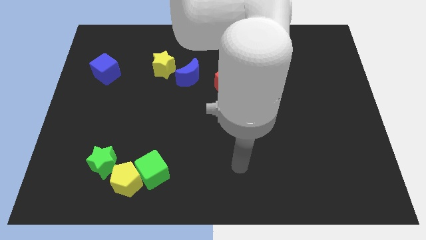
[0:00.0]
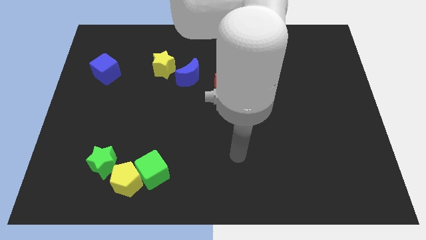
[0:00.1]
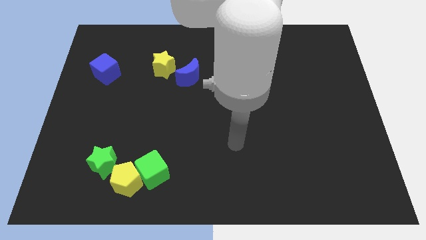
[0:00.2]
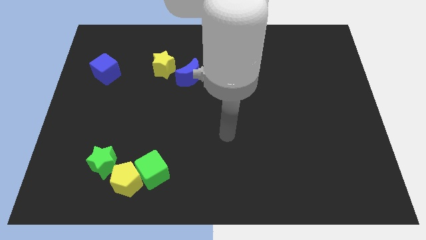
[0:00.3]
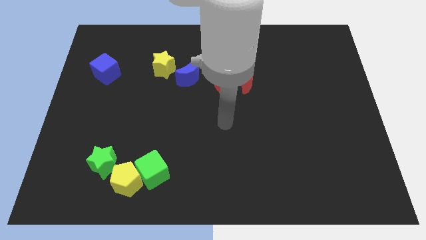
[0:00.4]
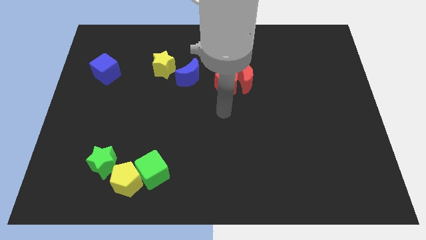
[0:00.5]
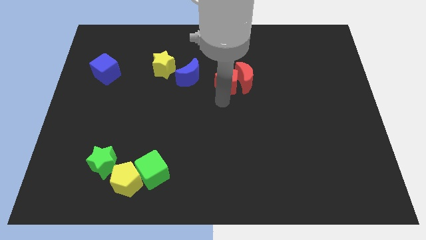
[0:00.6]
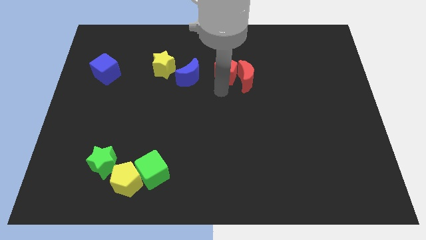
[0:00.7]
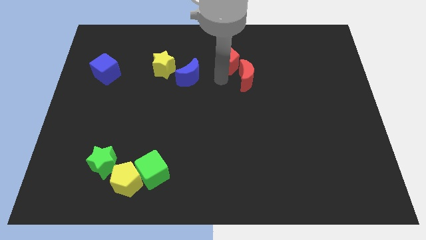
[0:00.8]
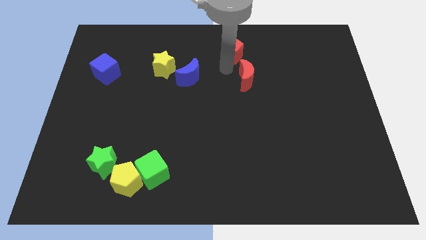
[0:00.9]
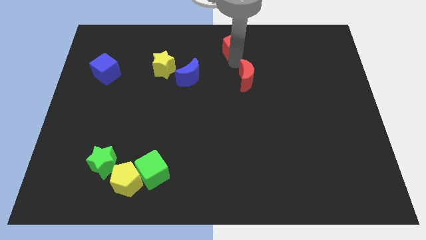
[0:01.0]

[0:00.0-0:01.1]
pull the red moon apart from the red pentagon

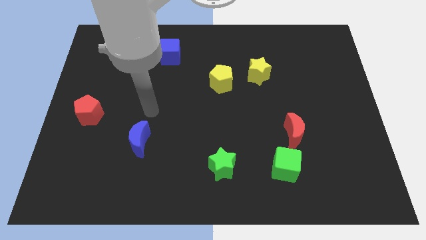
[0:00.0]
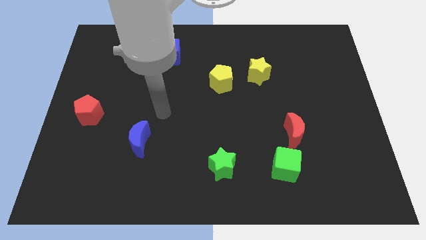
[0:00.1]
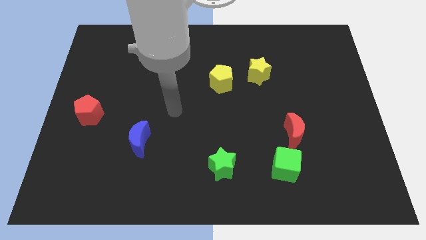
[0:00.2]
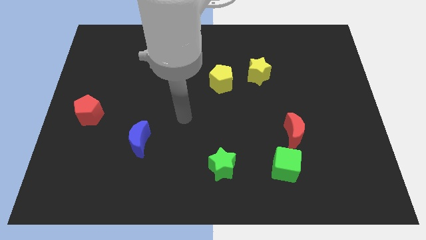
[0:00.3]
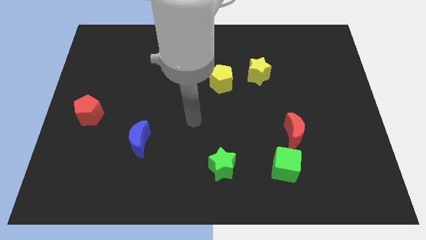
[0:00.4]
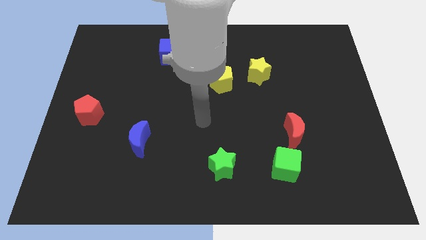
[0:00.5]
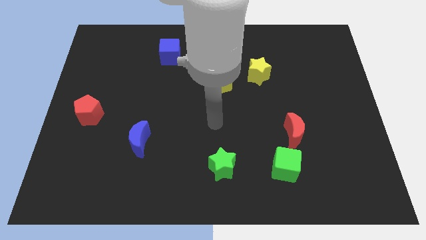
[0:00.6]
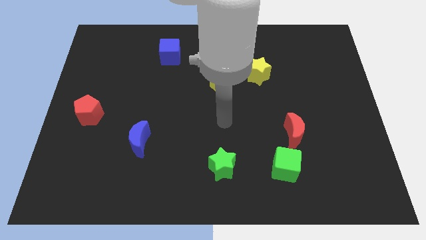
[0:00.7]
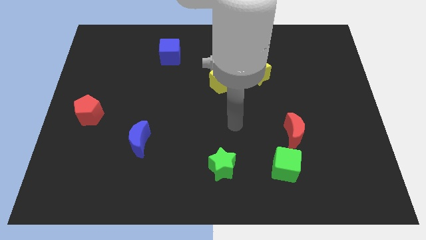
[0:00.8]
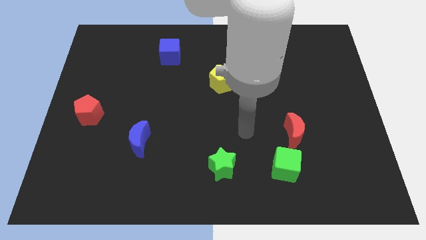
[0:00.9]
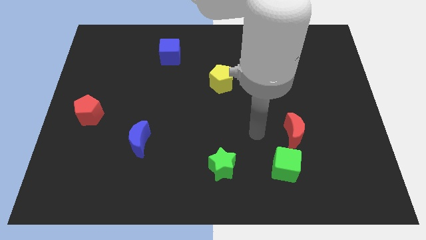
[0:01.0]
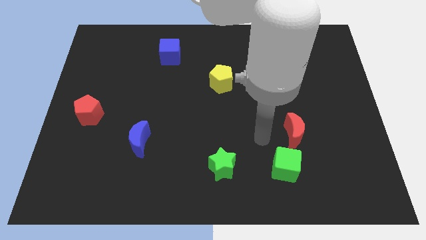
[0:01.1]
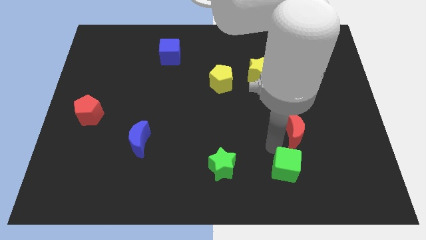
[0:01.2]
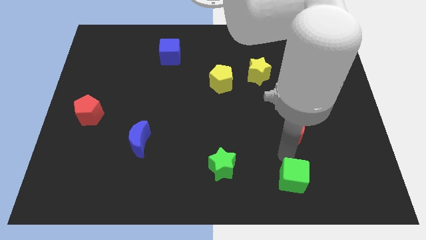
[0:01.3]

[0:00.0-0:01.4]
pull the red moon apart from the green cube

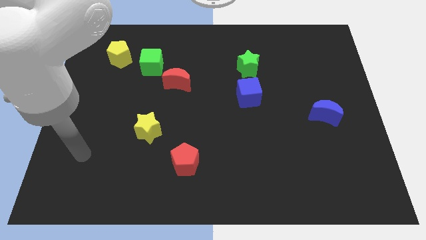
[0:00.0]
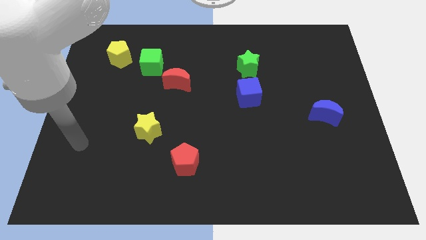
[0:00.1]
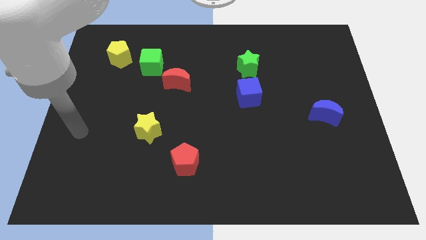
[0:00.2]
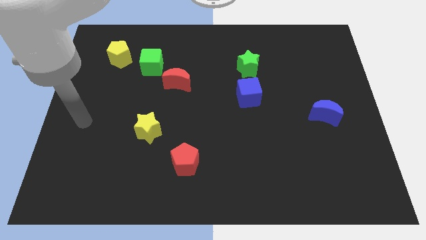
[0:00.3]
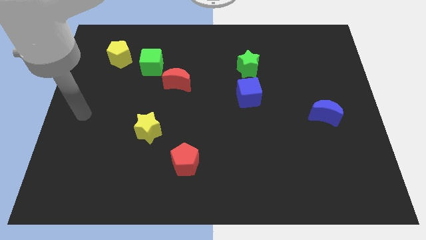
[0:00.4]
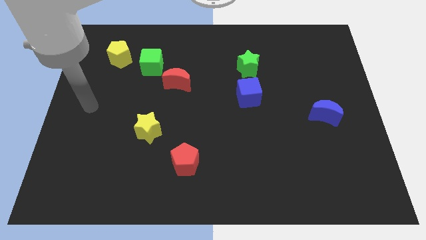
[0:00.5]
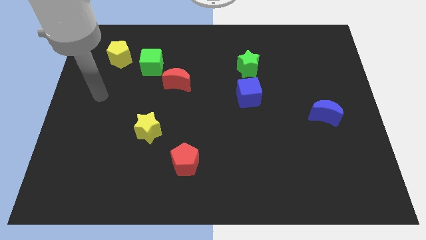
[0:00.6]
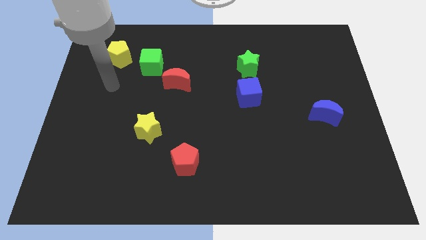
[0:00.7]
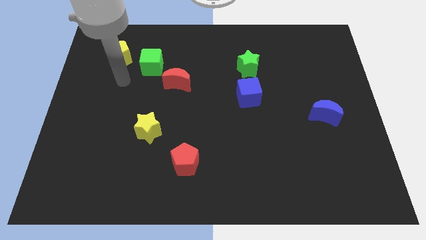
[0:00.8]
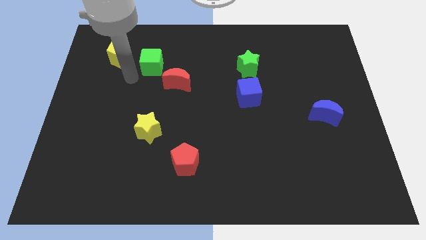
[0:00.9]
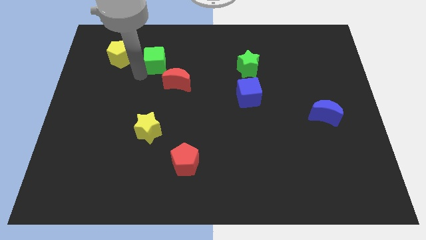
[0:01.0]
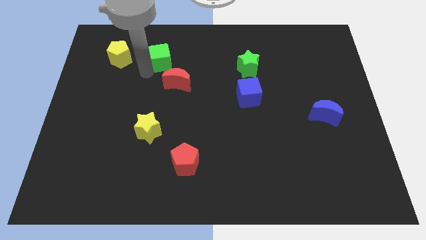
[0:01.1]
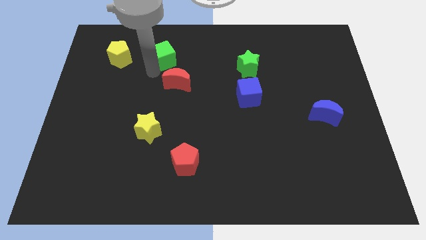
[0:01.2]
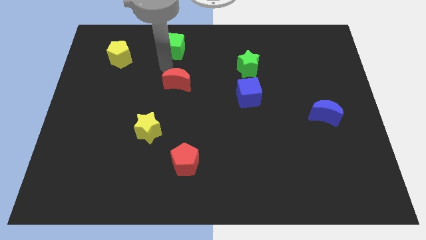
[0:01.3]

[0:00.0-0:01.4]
move the red moon away from the green cube

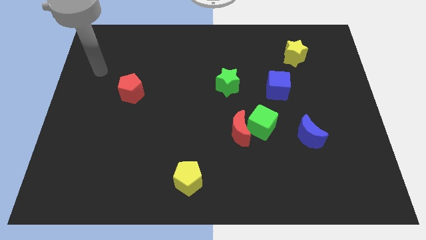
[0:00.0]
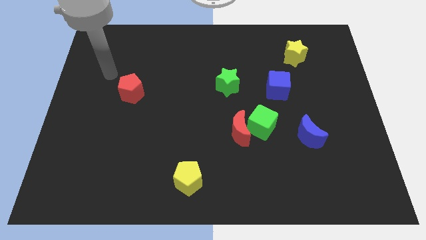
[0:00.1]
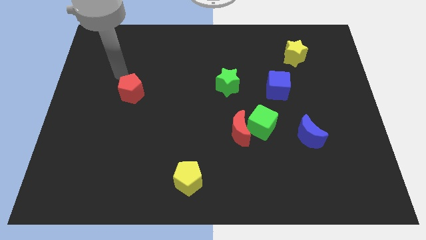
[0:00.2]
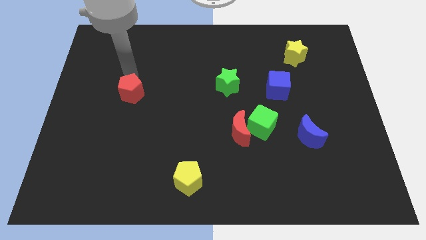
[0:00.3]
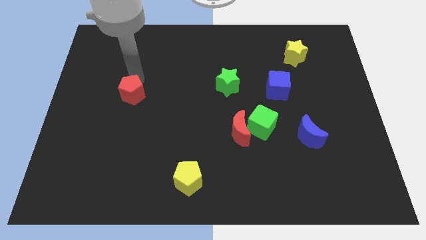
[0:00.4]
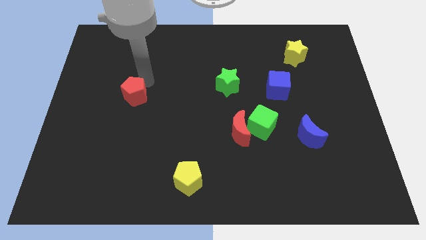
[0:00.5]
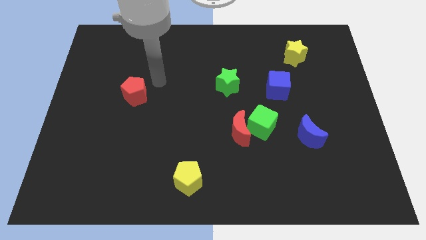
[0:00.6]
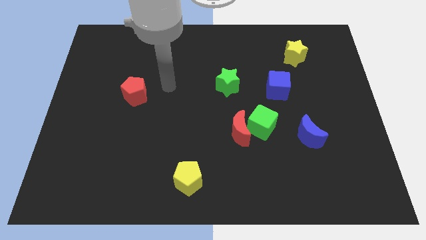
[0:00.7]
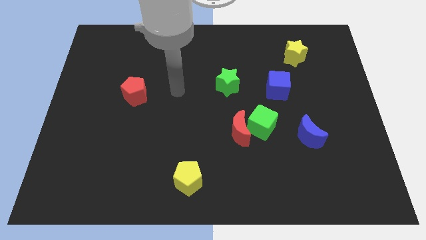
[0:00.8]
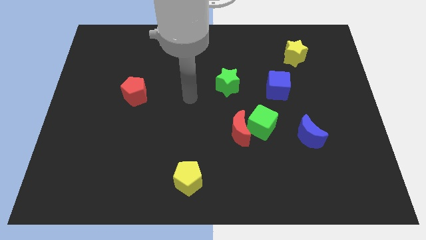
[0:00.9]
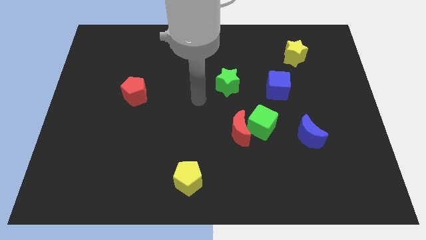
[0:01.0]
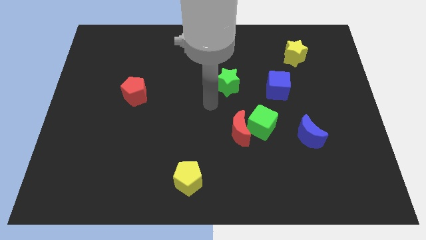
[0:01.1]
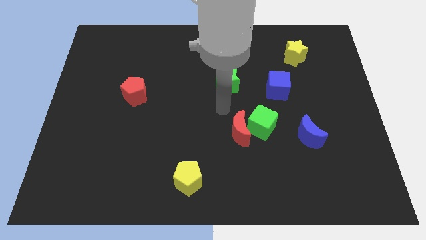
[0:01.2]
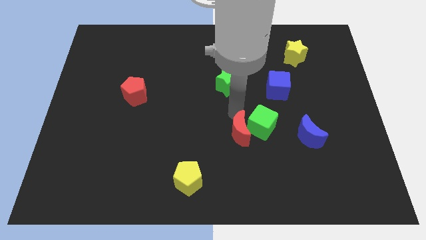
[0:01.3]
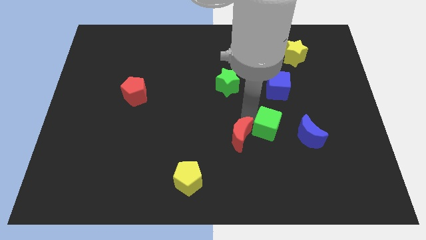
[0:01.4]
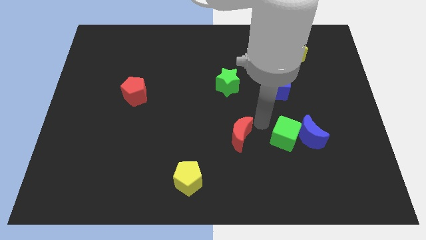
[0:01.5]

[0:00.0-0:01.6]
separate the red moon from the green cube

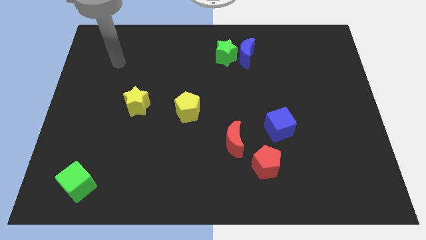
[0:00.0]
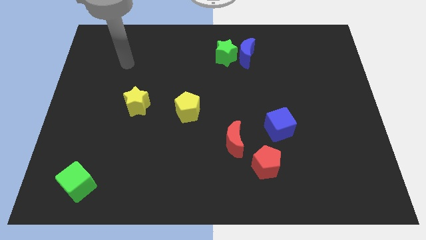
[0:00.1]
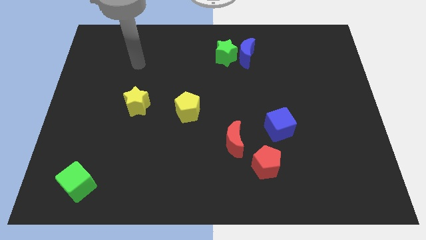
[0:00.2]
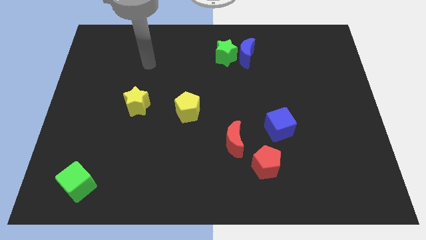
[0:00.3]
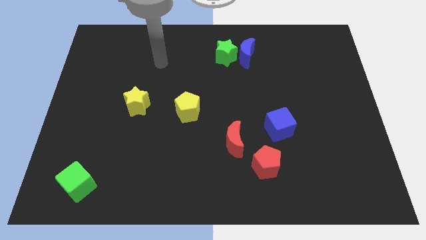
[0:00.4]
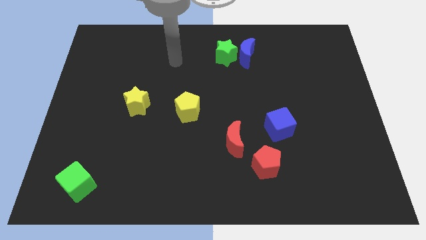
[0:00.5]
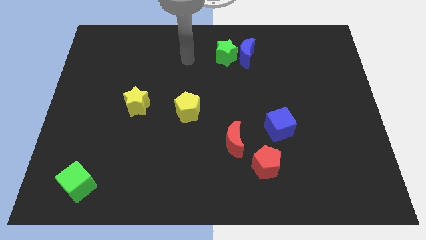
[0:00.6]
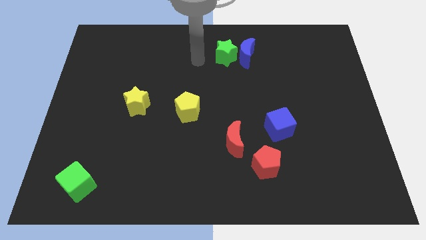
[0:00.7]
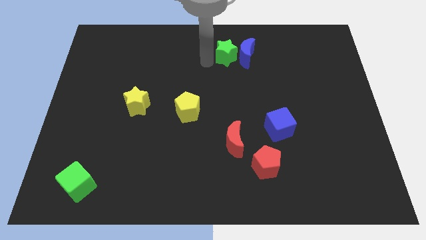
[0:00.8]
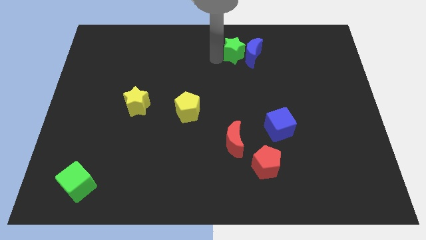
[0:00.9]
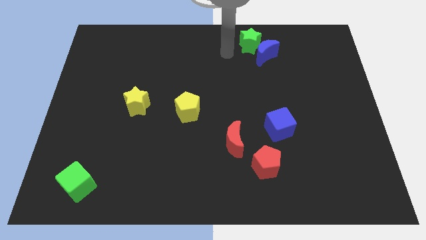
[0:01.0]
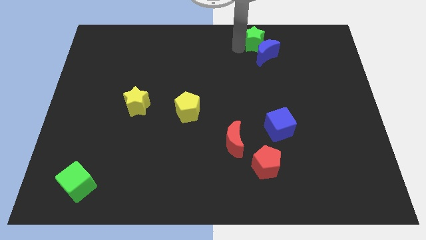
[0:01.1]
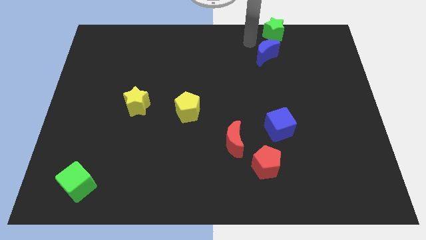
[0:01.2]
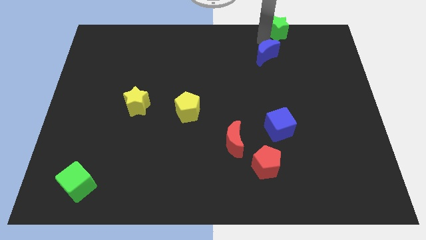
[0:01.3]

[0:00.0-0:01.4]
separate the blue moon from the green star

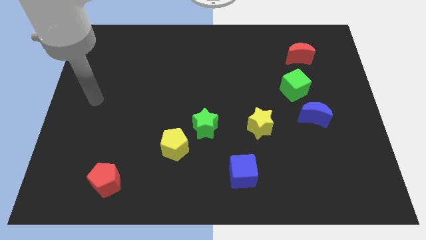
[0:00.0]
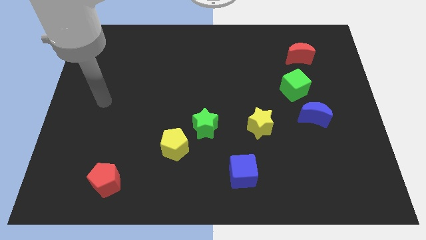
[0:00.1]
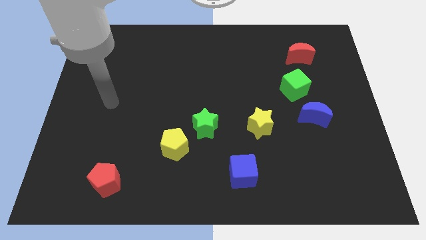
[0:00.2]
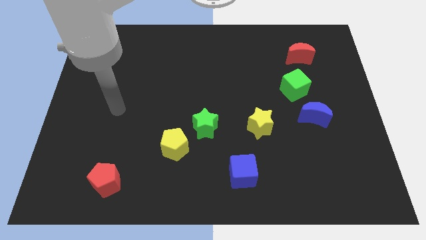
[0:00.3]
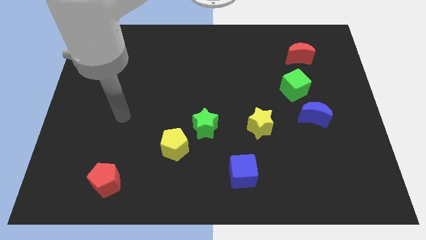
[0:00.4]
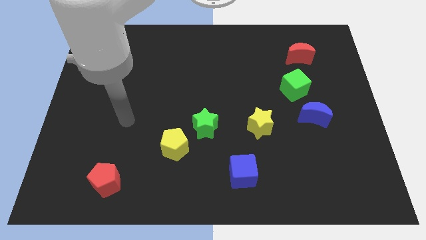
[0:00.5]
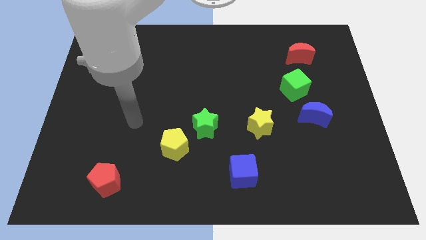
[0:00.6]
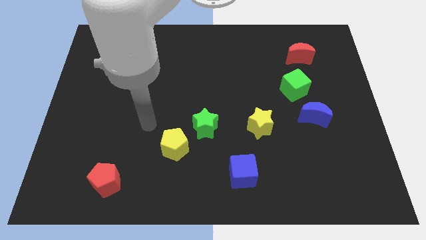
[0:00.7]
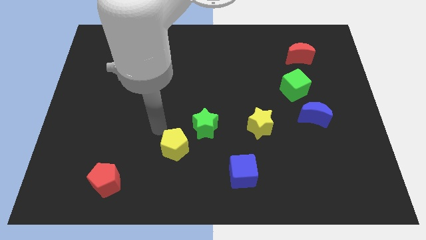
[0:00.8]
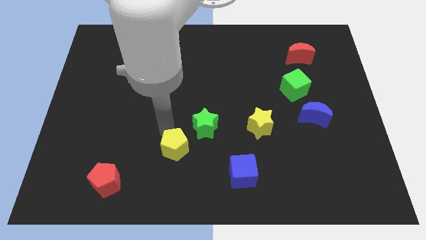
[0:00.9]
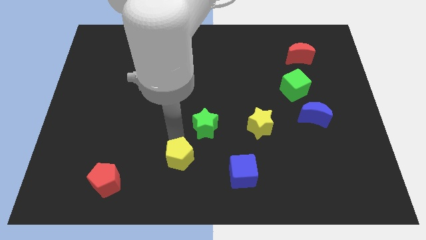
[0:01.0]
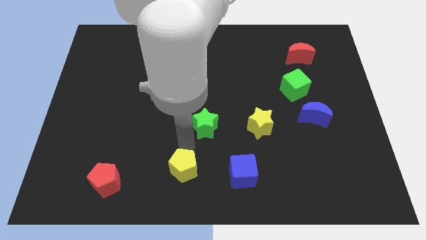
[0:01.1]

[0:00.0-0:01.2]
move the green star away from the yellow pentagon

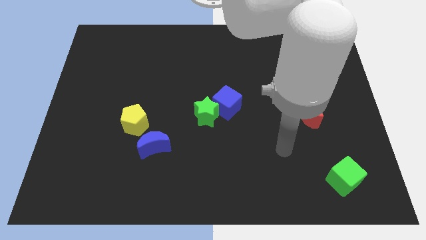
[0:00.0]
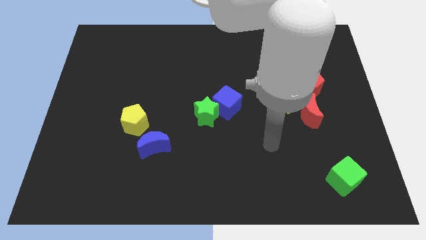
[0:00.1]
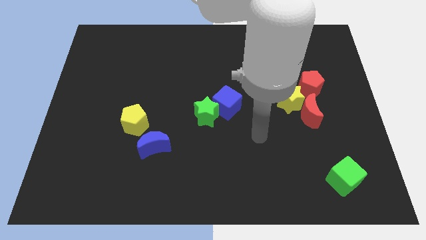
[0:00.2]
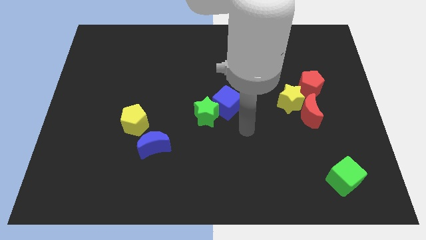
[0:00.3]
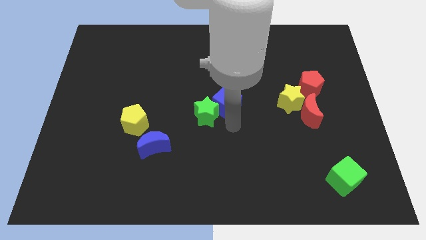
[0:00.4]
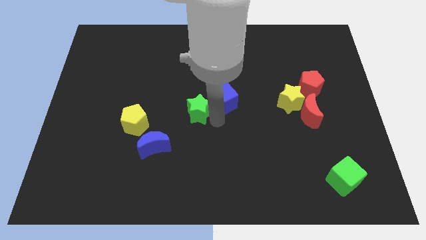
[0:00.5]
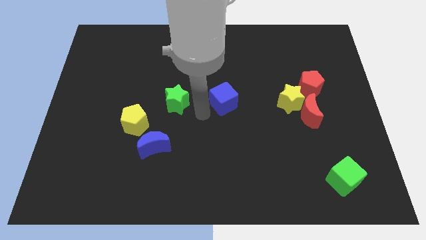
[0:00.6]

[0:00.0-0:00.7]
move the blue cube away from the green star

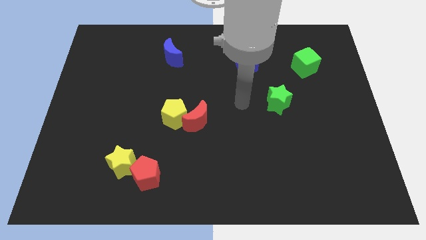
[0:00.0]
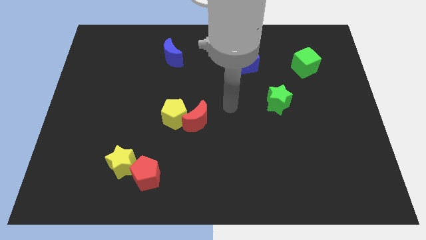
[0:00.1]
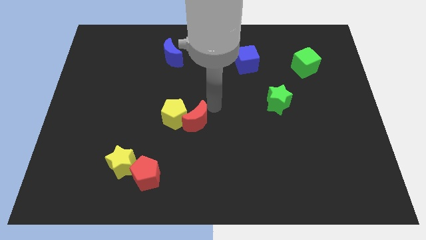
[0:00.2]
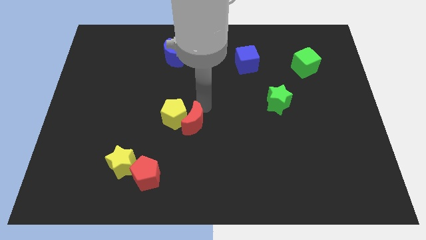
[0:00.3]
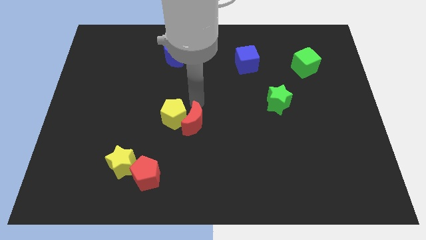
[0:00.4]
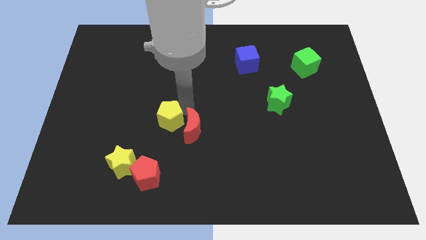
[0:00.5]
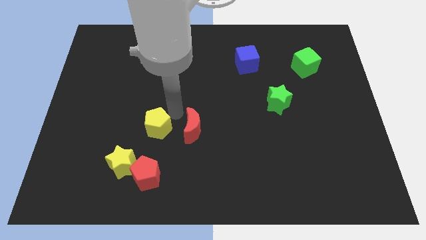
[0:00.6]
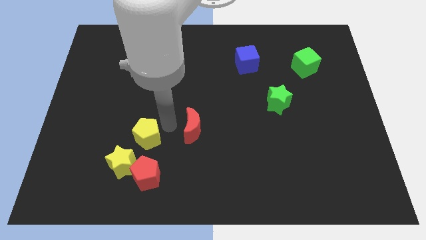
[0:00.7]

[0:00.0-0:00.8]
pull the red moon apart from the yellow pentagon
